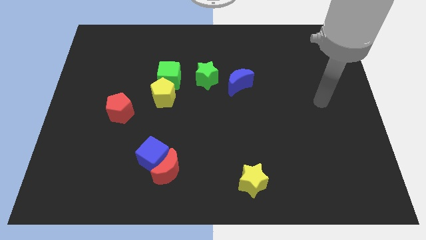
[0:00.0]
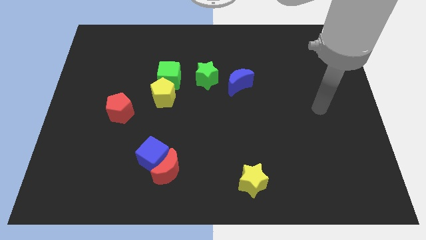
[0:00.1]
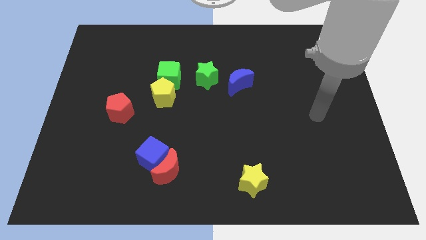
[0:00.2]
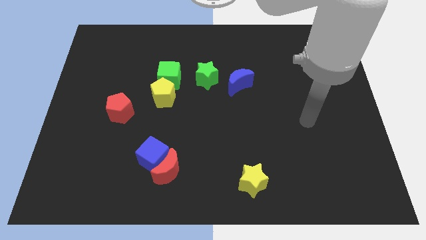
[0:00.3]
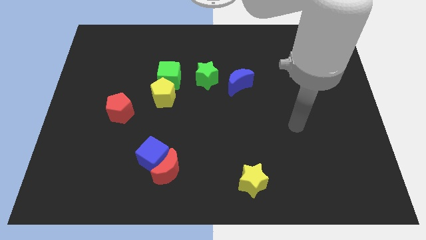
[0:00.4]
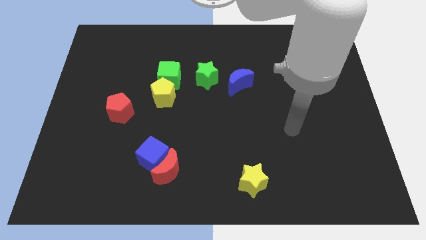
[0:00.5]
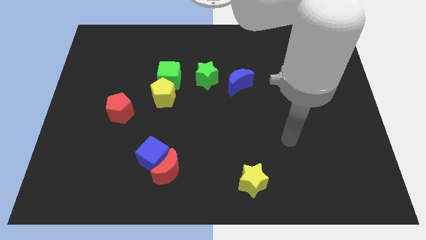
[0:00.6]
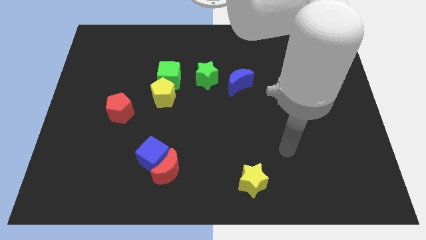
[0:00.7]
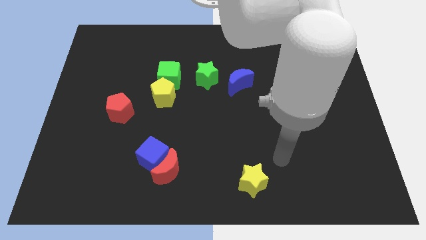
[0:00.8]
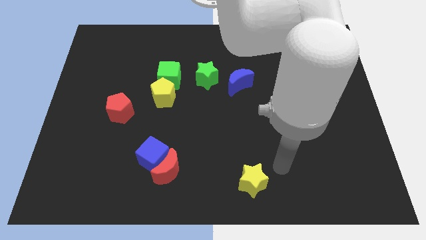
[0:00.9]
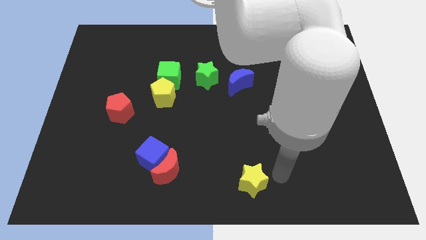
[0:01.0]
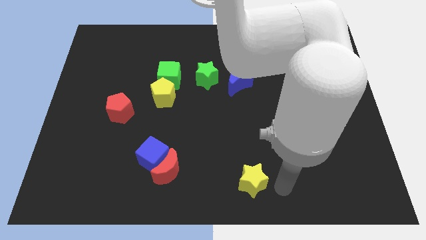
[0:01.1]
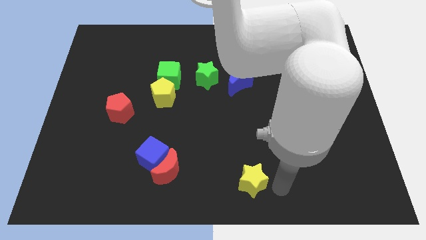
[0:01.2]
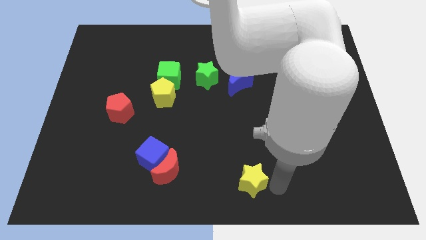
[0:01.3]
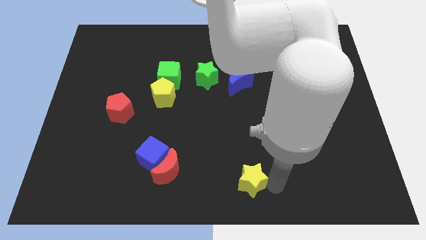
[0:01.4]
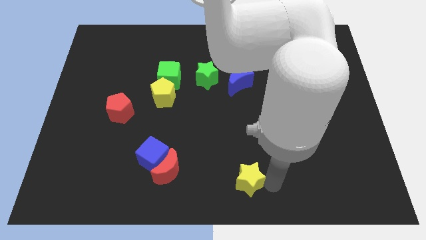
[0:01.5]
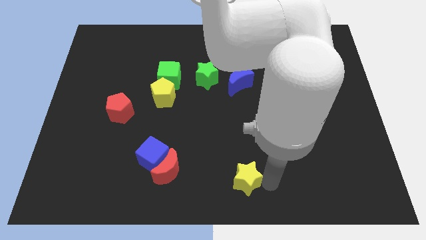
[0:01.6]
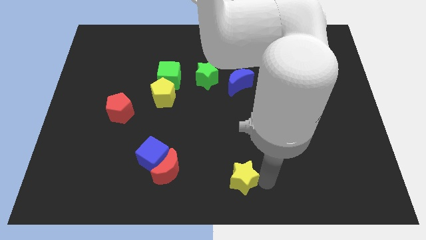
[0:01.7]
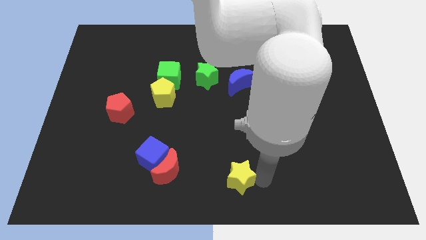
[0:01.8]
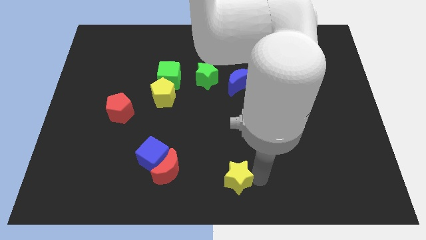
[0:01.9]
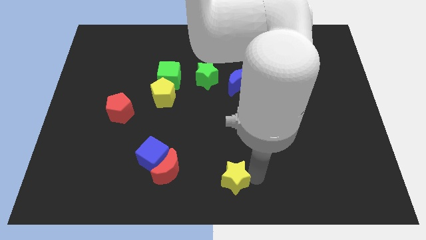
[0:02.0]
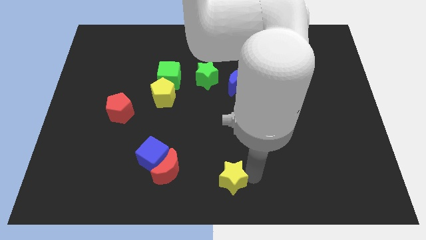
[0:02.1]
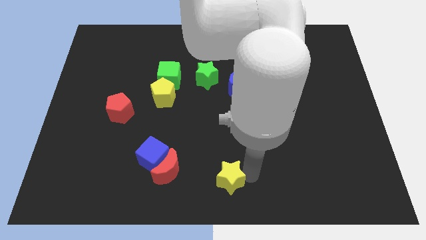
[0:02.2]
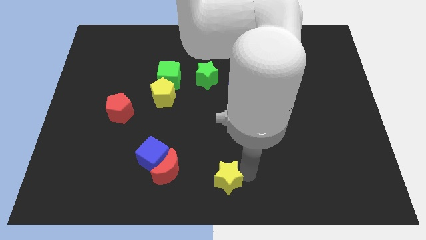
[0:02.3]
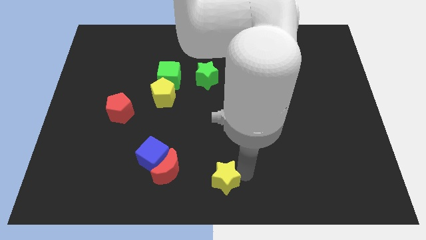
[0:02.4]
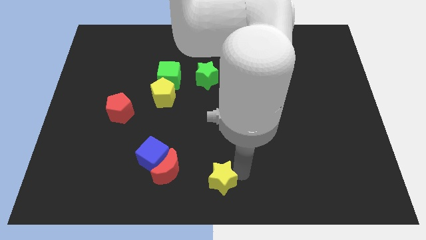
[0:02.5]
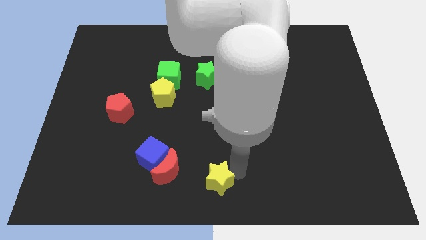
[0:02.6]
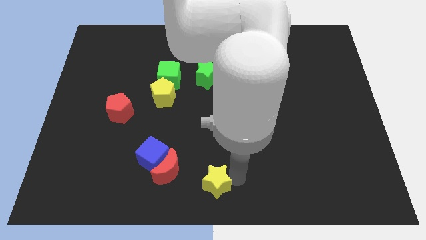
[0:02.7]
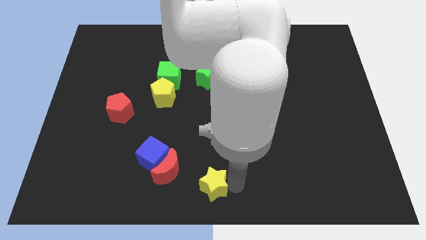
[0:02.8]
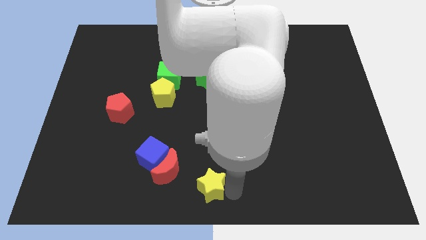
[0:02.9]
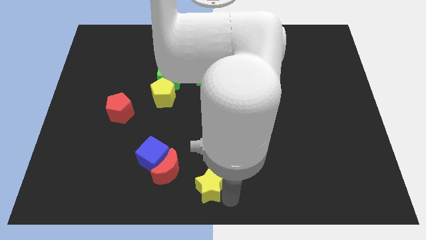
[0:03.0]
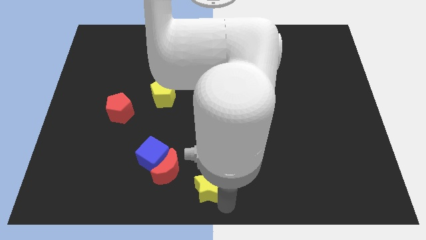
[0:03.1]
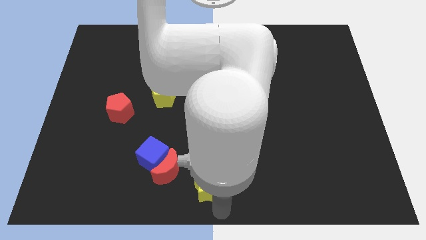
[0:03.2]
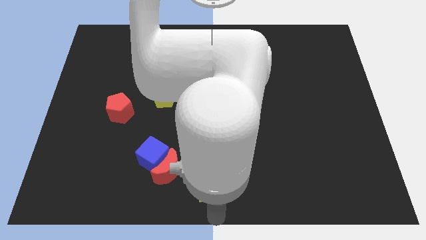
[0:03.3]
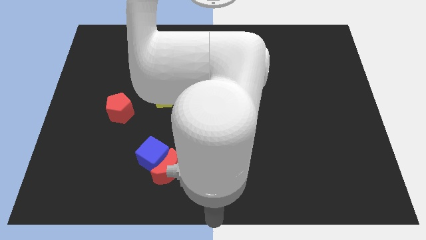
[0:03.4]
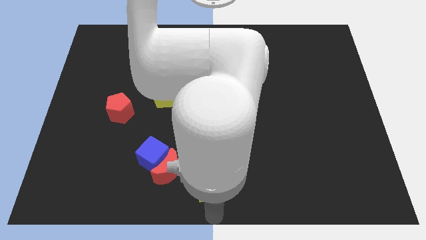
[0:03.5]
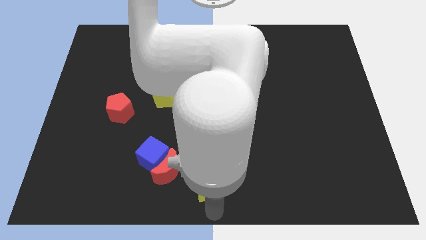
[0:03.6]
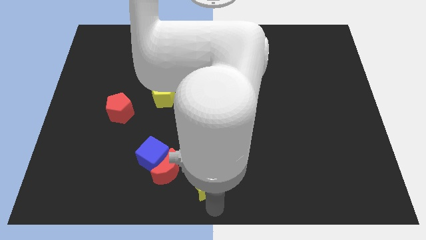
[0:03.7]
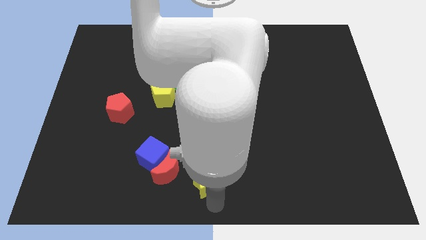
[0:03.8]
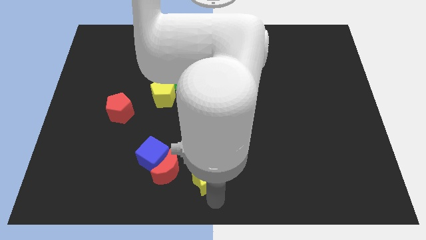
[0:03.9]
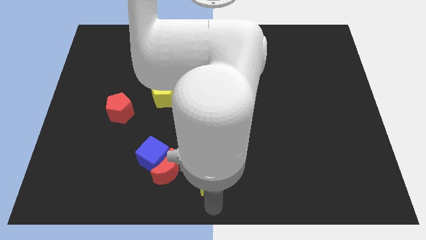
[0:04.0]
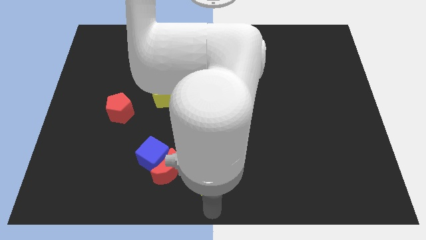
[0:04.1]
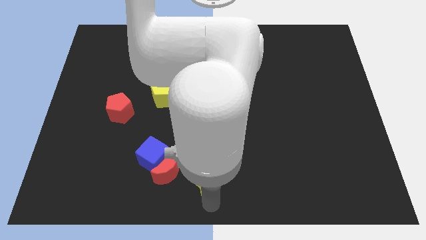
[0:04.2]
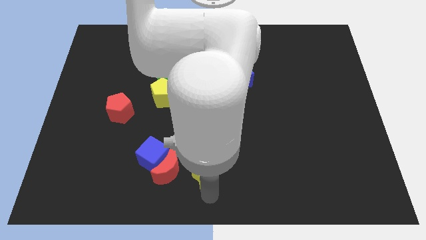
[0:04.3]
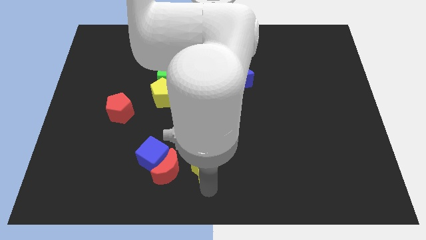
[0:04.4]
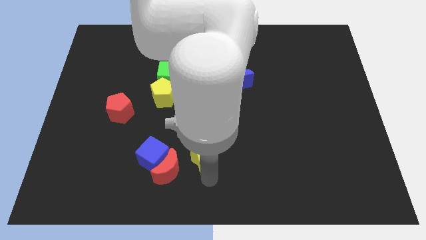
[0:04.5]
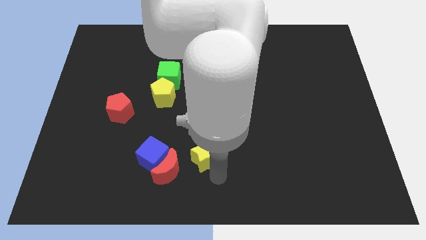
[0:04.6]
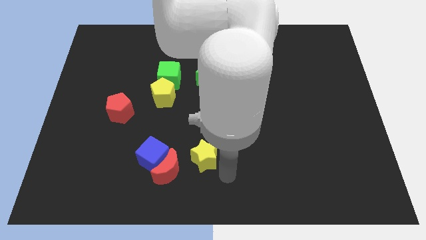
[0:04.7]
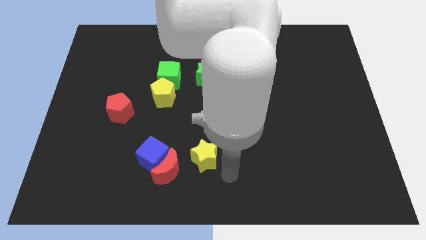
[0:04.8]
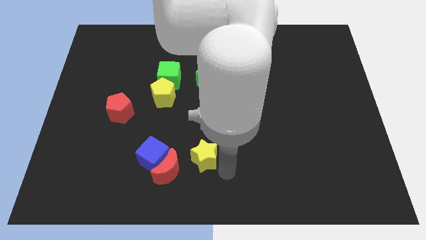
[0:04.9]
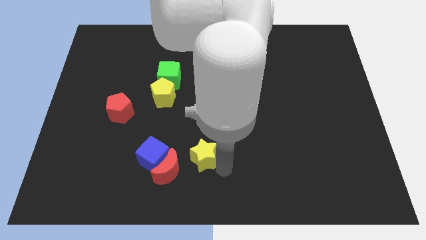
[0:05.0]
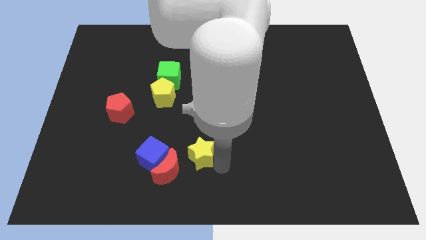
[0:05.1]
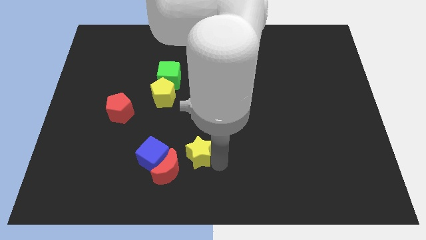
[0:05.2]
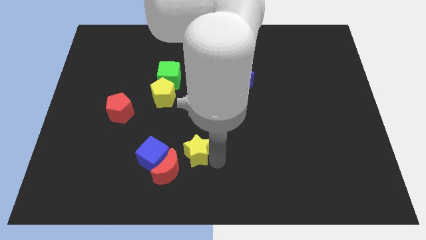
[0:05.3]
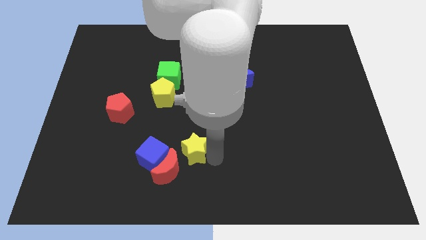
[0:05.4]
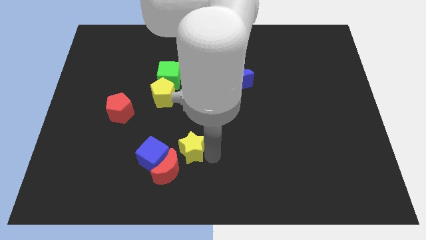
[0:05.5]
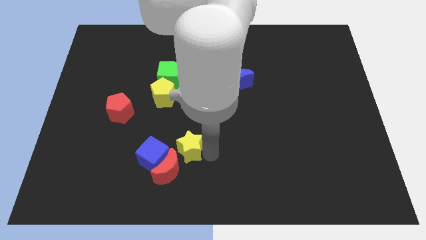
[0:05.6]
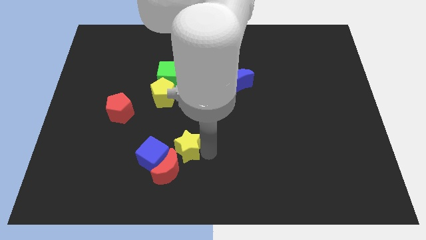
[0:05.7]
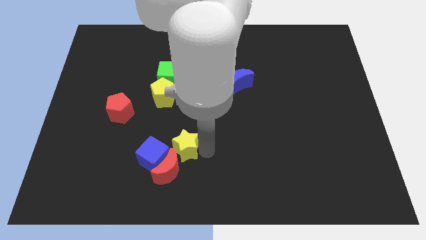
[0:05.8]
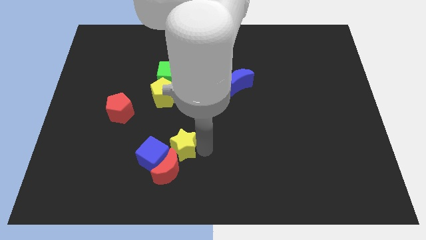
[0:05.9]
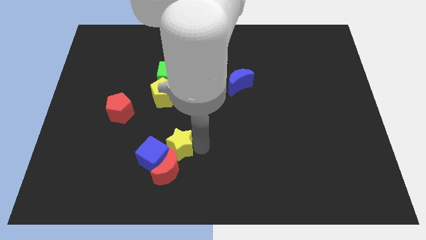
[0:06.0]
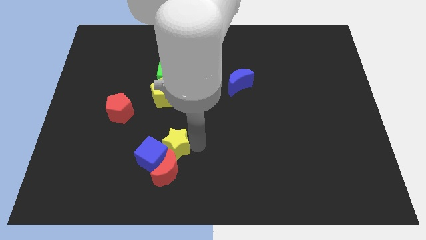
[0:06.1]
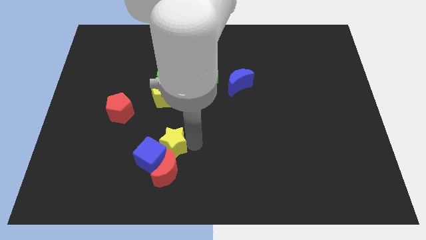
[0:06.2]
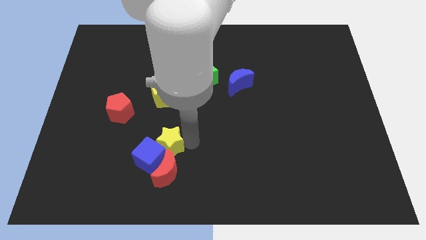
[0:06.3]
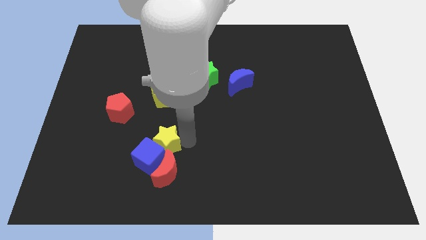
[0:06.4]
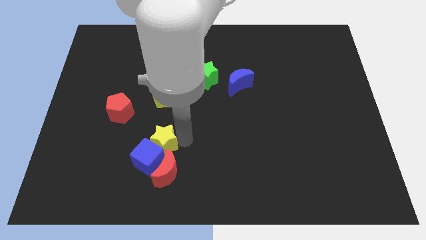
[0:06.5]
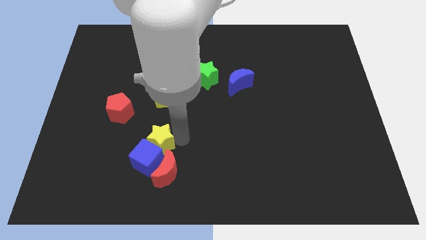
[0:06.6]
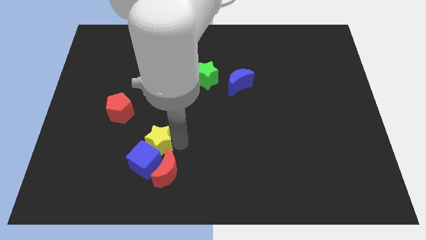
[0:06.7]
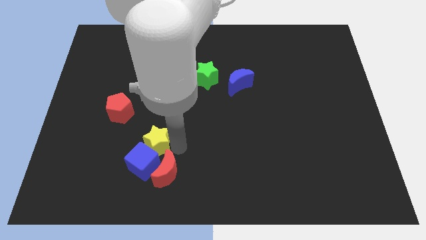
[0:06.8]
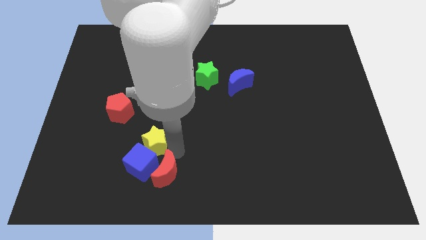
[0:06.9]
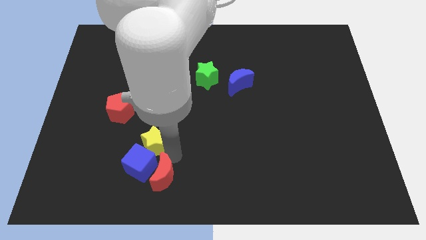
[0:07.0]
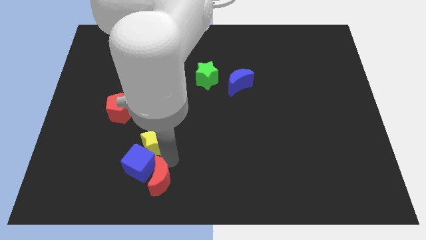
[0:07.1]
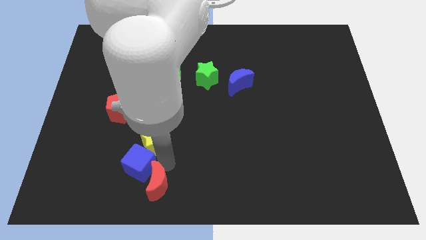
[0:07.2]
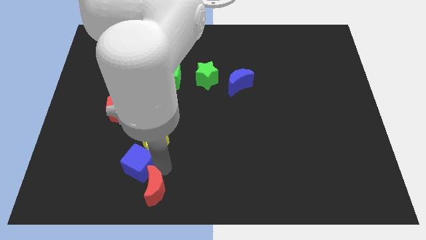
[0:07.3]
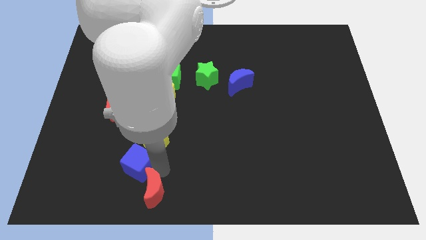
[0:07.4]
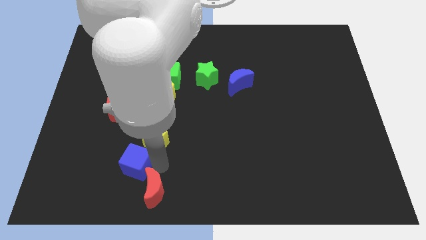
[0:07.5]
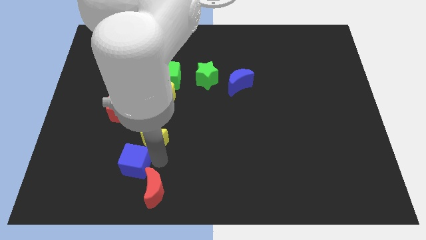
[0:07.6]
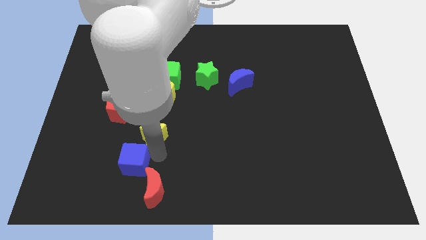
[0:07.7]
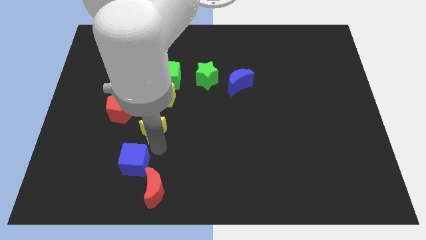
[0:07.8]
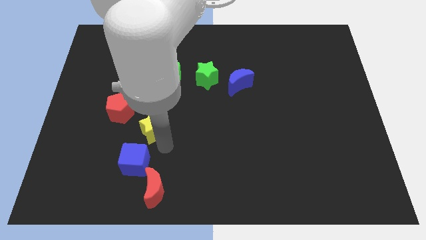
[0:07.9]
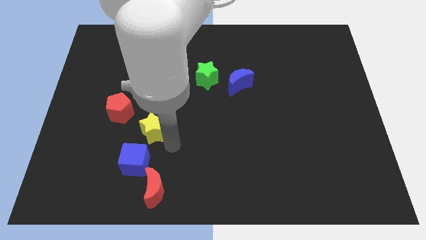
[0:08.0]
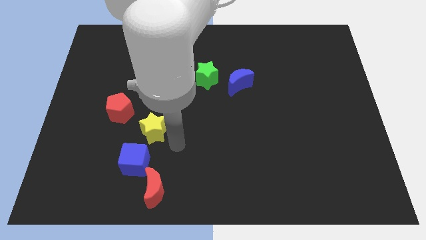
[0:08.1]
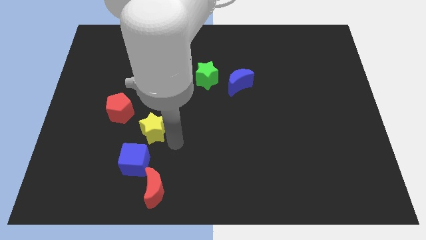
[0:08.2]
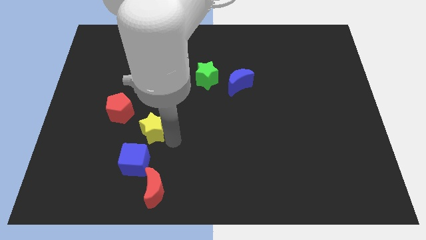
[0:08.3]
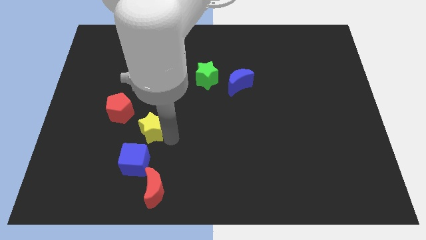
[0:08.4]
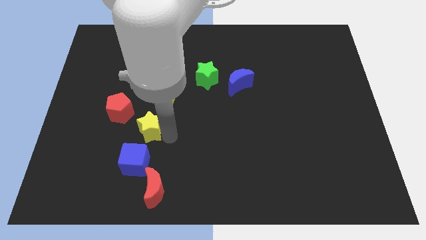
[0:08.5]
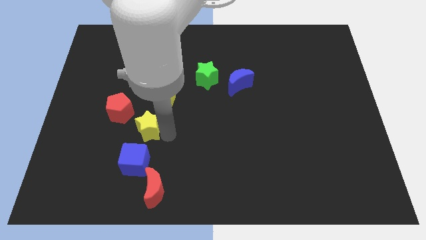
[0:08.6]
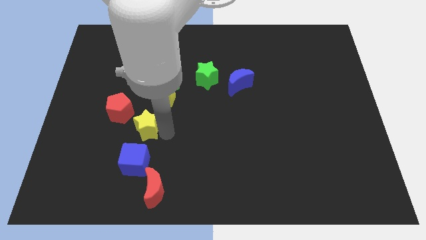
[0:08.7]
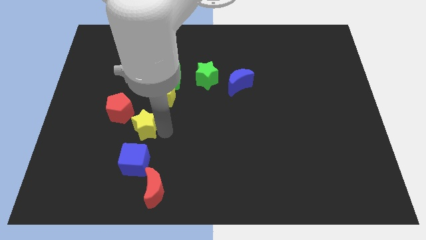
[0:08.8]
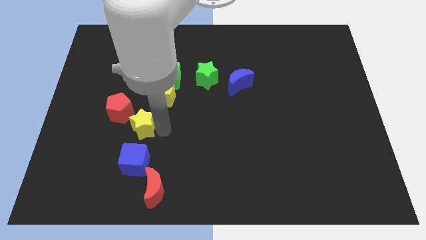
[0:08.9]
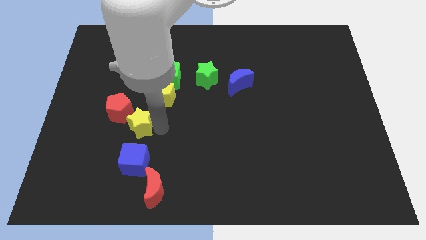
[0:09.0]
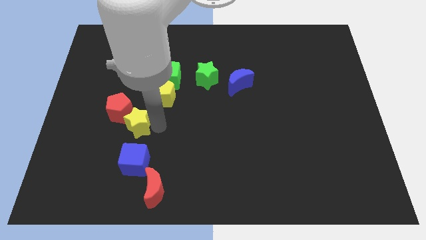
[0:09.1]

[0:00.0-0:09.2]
push the yellow star to the red pentagon
